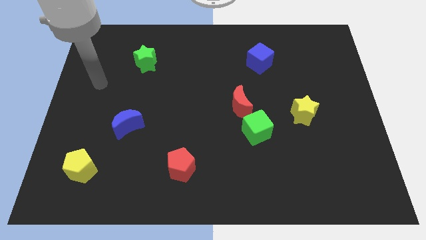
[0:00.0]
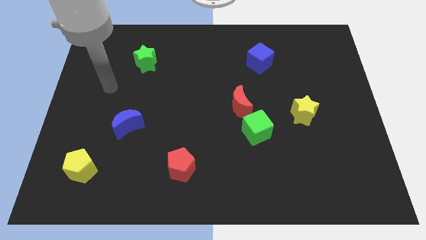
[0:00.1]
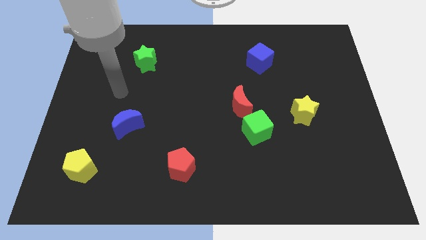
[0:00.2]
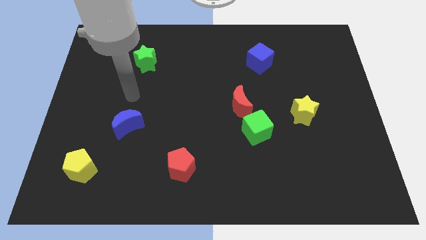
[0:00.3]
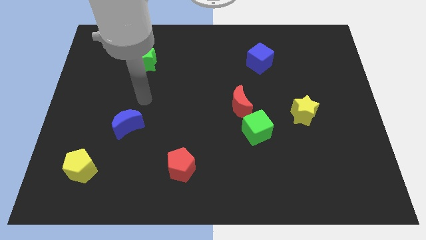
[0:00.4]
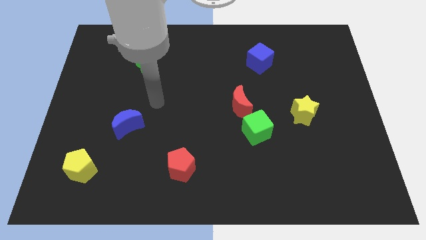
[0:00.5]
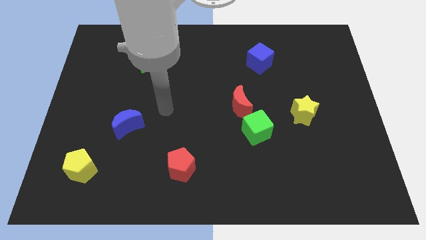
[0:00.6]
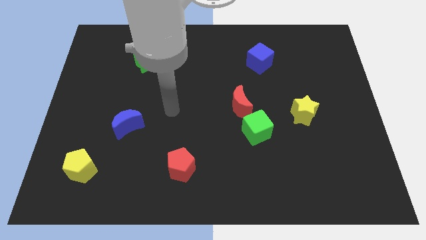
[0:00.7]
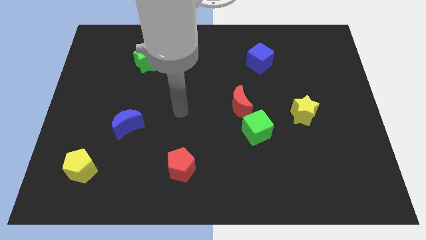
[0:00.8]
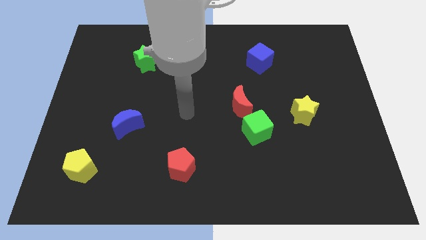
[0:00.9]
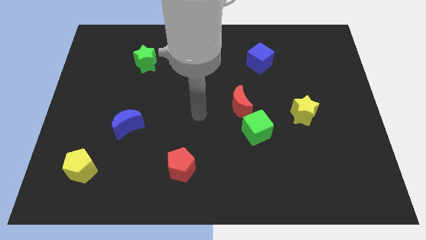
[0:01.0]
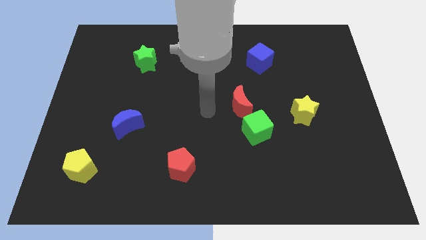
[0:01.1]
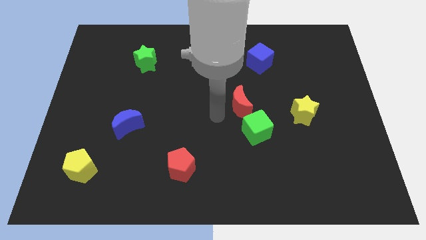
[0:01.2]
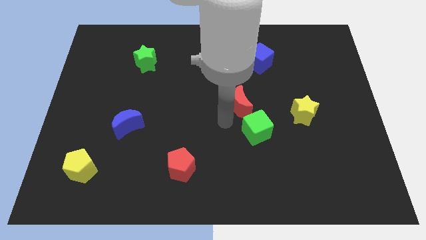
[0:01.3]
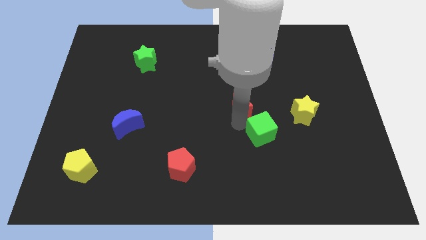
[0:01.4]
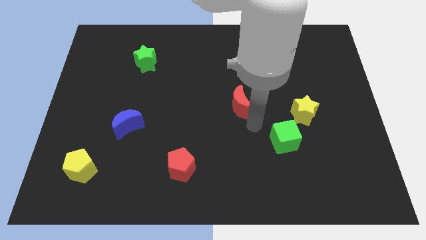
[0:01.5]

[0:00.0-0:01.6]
pull the red moon apart from the green cube

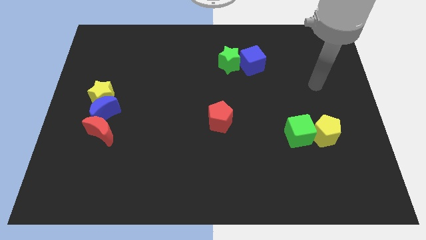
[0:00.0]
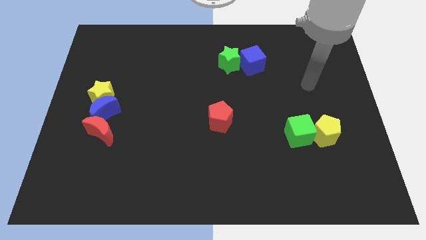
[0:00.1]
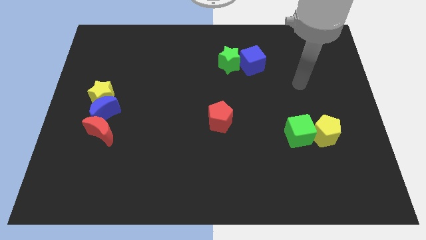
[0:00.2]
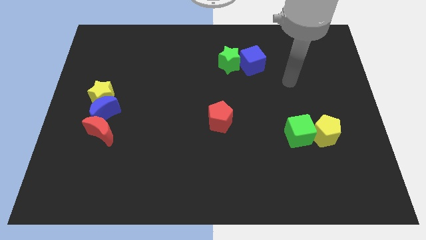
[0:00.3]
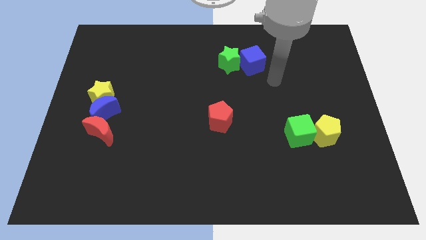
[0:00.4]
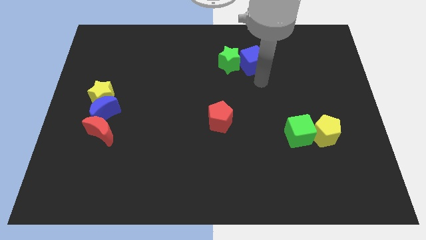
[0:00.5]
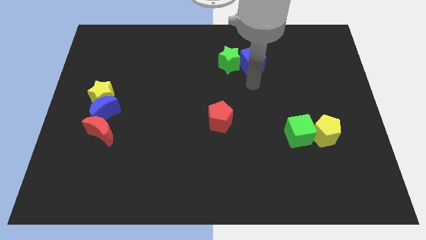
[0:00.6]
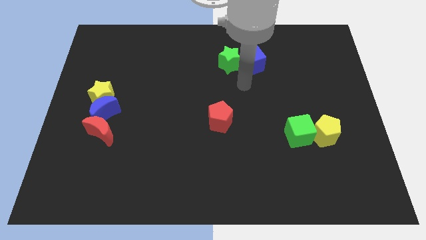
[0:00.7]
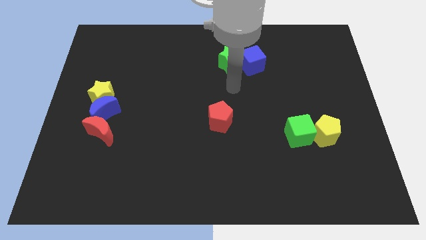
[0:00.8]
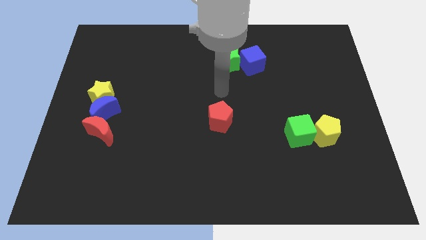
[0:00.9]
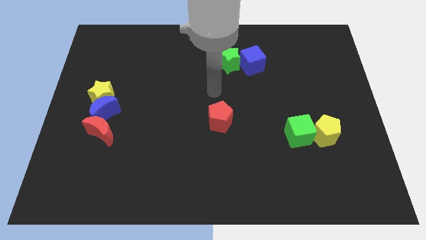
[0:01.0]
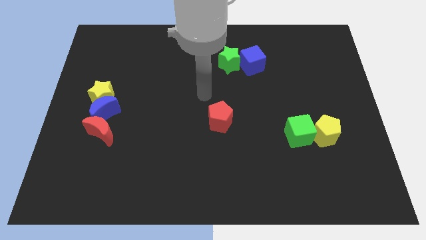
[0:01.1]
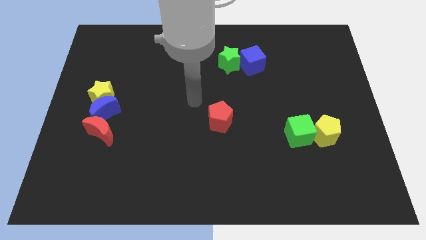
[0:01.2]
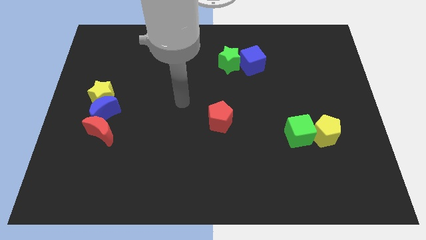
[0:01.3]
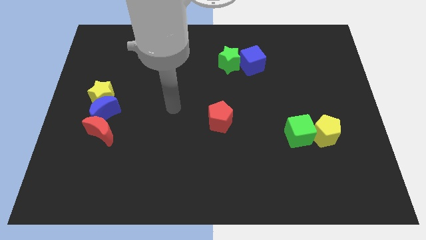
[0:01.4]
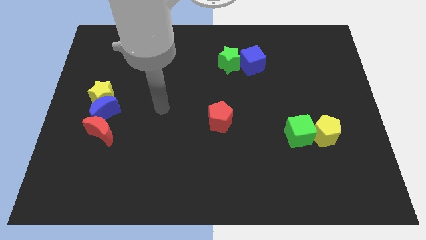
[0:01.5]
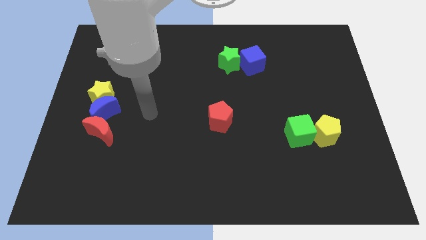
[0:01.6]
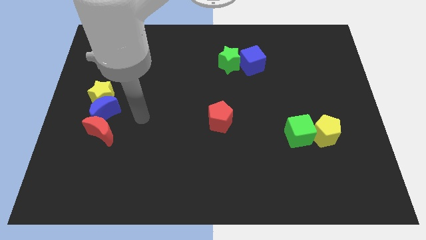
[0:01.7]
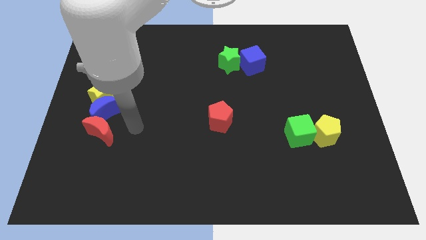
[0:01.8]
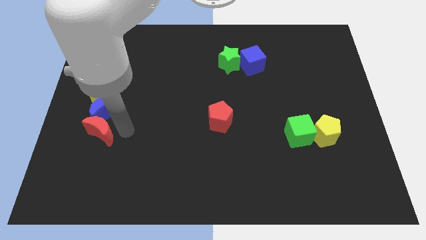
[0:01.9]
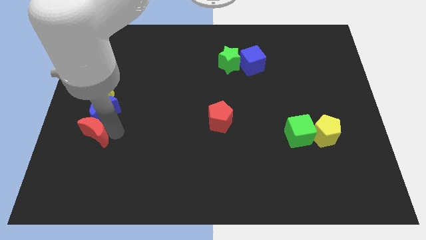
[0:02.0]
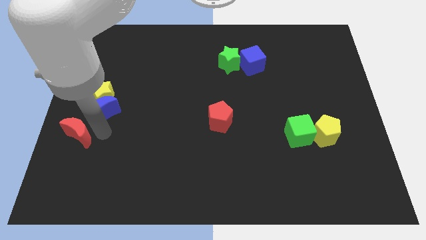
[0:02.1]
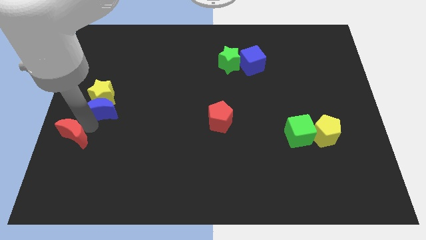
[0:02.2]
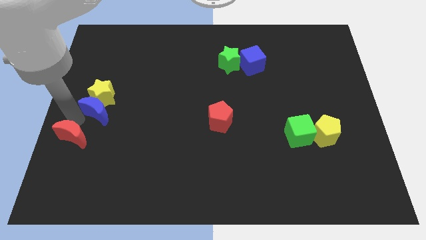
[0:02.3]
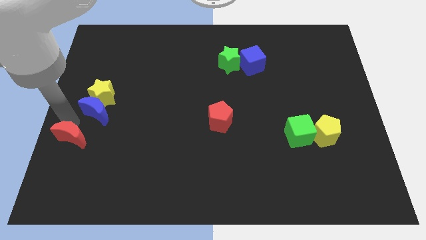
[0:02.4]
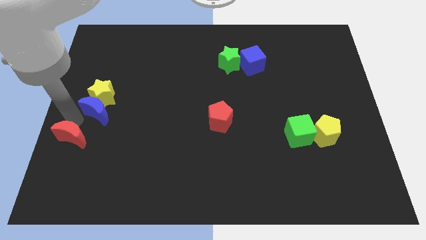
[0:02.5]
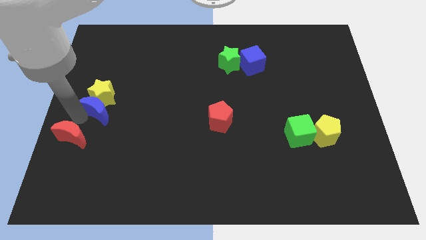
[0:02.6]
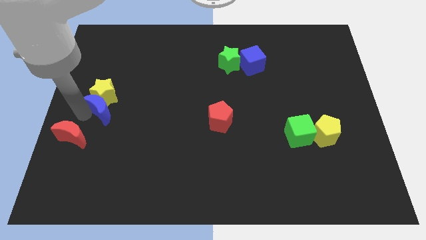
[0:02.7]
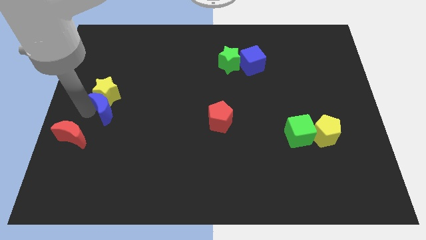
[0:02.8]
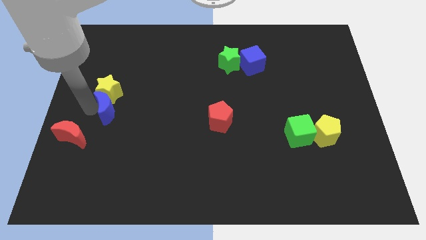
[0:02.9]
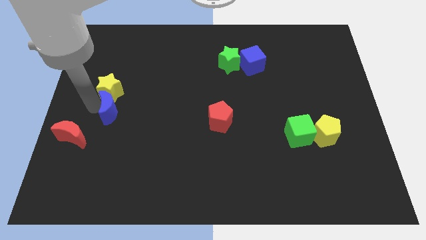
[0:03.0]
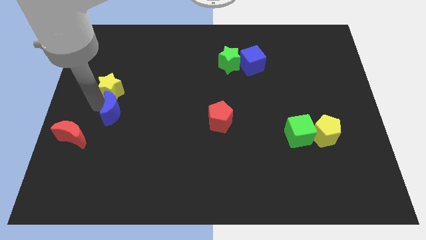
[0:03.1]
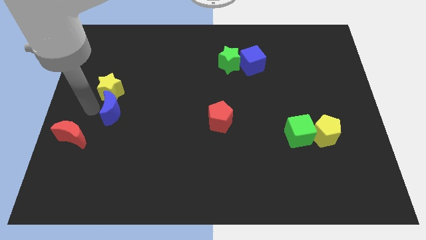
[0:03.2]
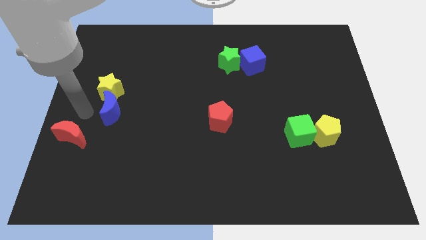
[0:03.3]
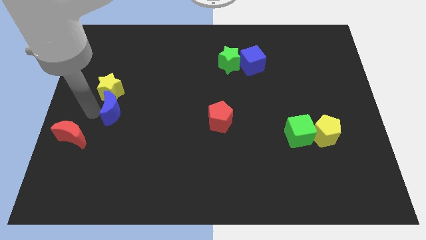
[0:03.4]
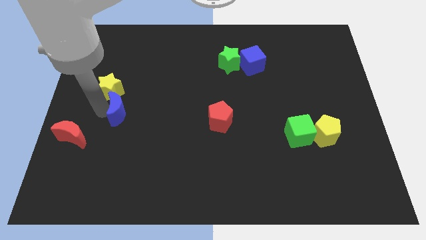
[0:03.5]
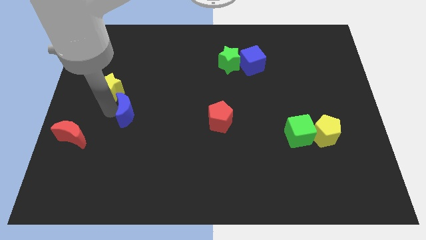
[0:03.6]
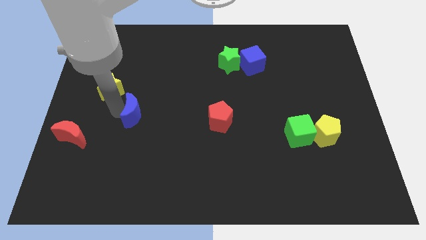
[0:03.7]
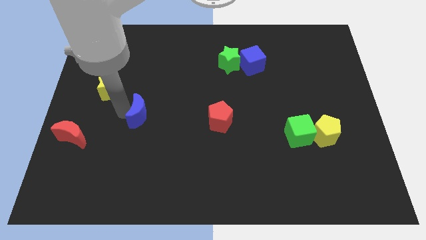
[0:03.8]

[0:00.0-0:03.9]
pull the blue moon apart from the yellow star and red moon

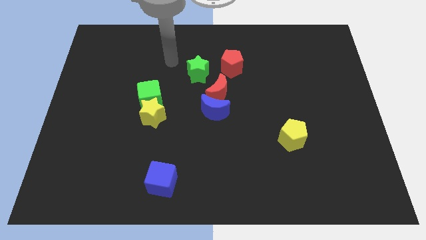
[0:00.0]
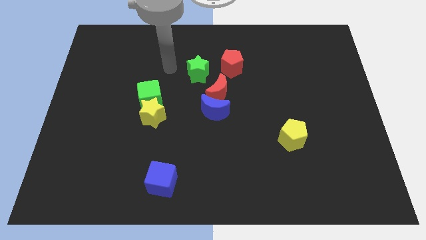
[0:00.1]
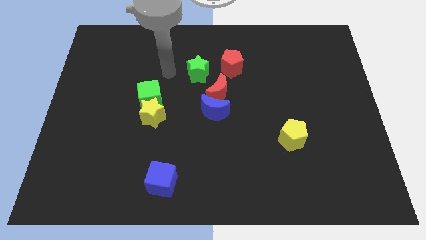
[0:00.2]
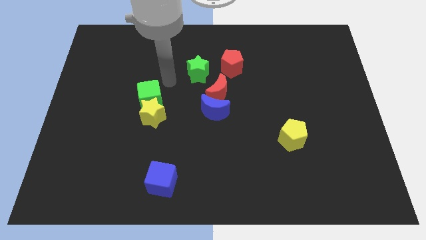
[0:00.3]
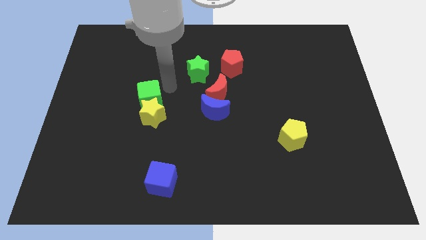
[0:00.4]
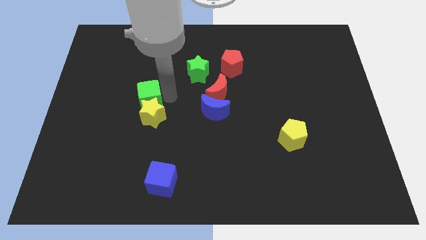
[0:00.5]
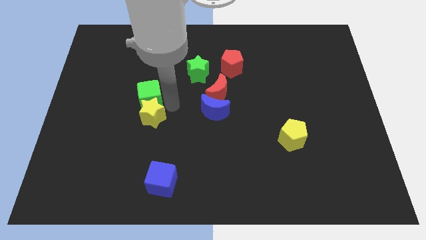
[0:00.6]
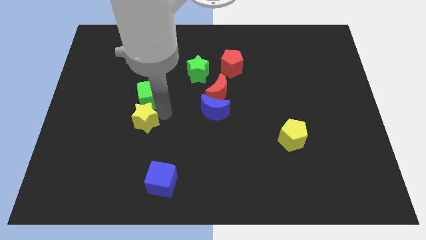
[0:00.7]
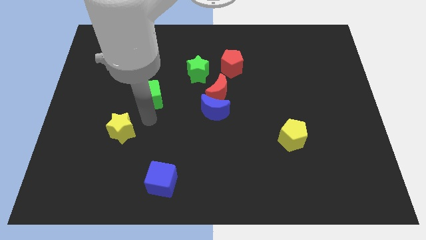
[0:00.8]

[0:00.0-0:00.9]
pull the green cube apart from the yellow star

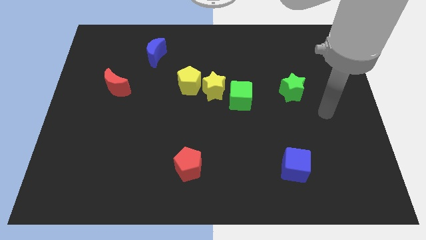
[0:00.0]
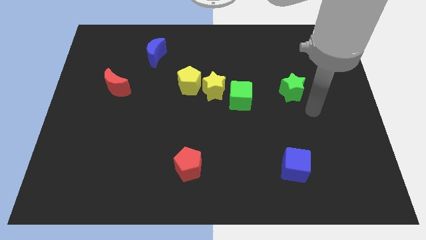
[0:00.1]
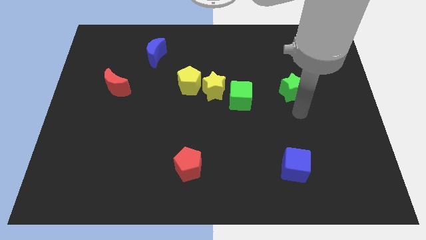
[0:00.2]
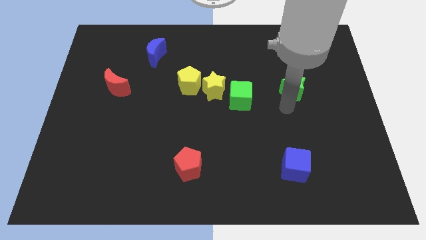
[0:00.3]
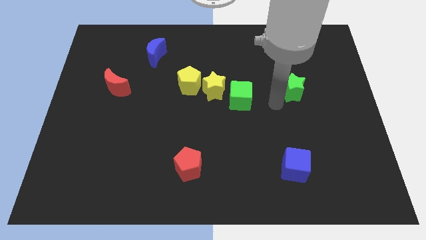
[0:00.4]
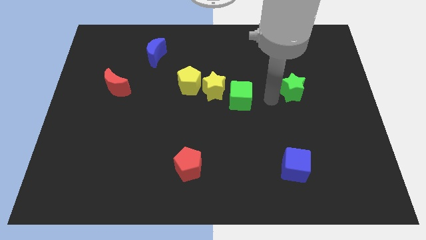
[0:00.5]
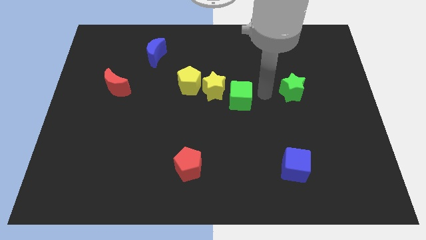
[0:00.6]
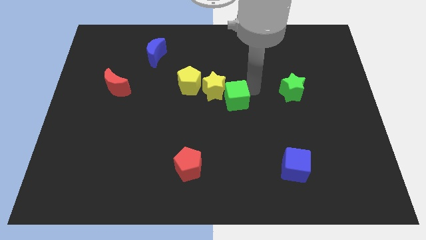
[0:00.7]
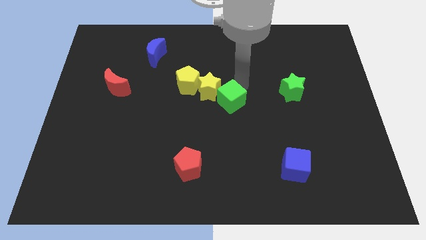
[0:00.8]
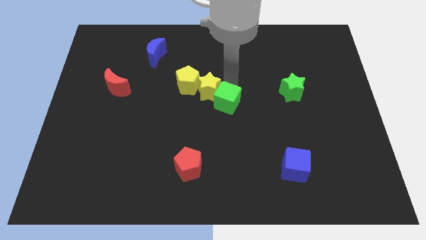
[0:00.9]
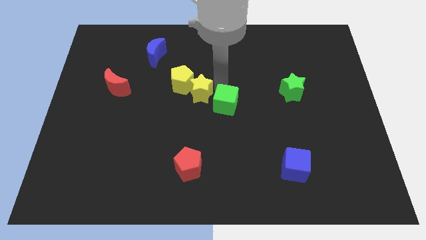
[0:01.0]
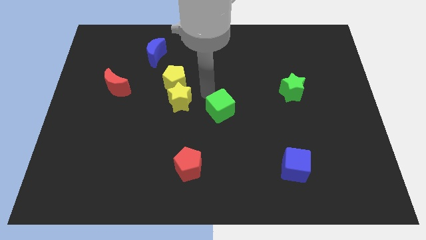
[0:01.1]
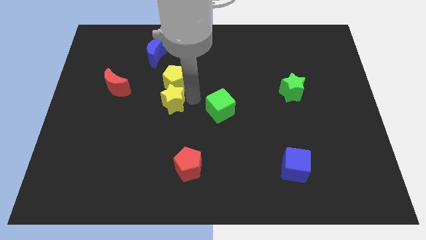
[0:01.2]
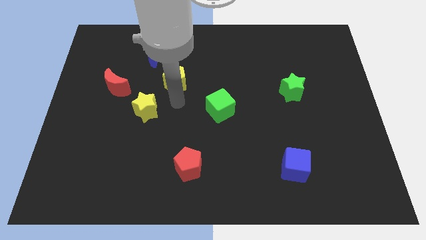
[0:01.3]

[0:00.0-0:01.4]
separate the yellow pentagon from the yellow star

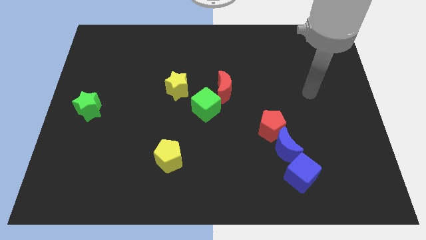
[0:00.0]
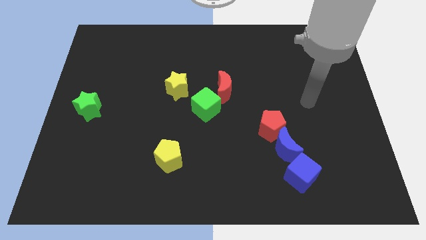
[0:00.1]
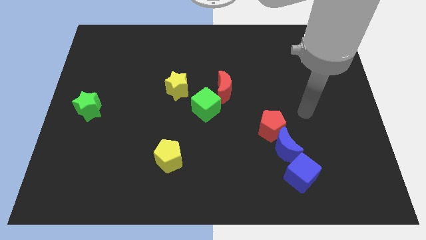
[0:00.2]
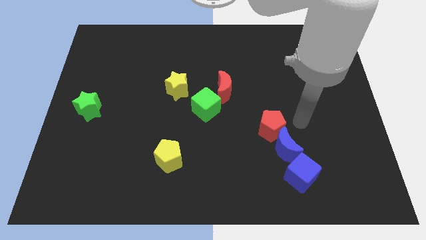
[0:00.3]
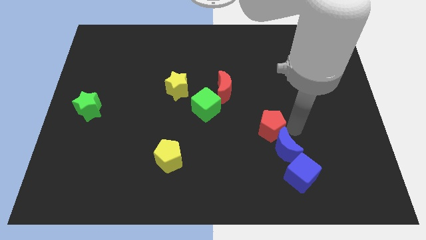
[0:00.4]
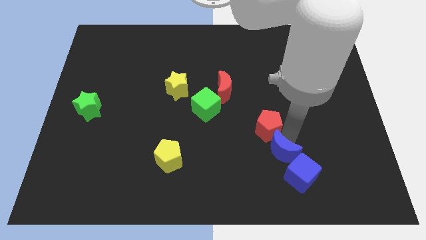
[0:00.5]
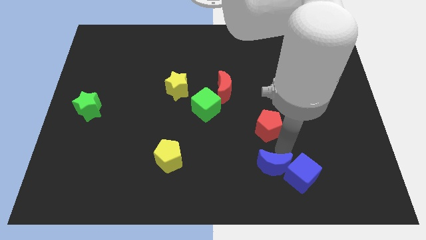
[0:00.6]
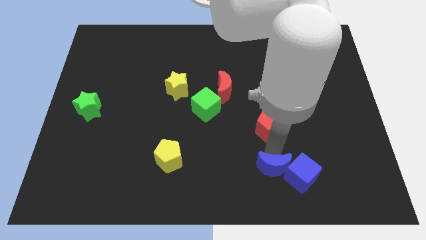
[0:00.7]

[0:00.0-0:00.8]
pull the red pentagon apart from the blue moon

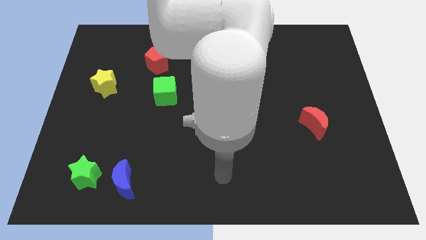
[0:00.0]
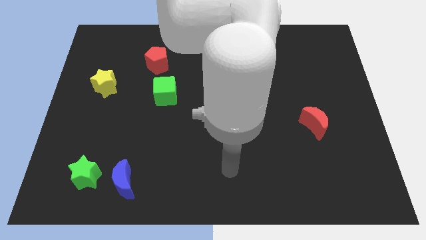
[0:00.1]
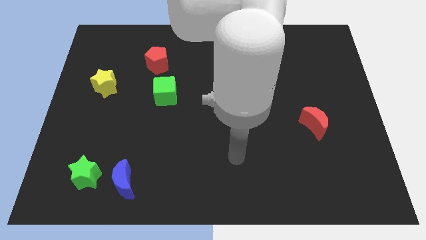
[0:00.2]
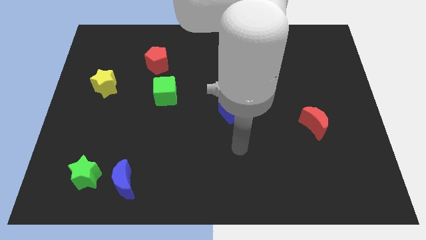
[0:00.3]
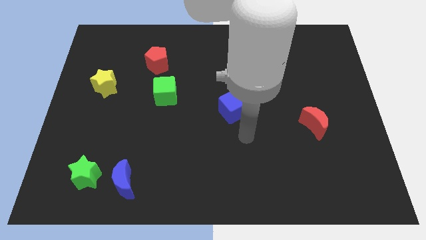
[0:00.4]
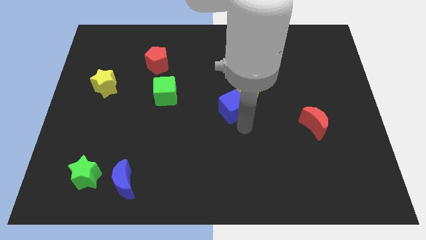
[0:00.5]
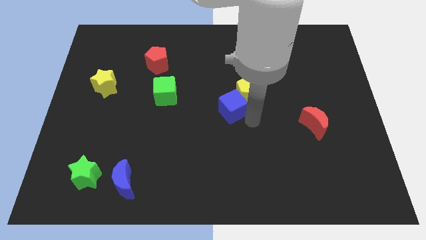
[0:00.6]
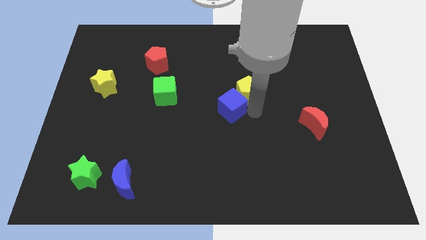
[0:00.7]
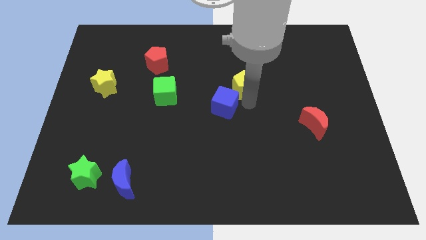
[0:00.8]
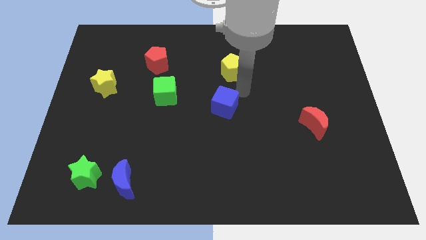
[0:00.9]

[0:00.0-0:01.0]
move the blue cube away from the yellow pentagon
